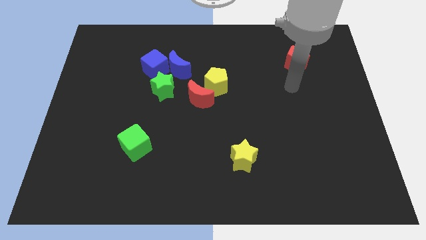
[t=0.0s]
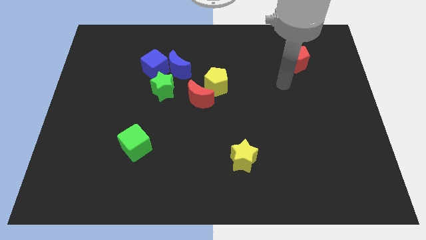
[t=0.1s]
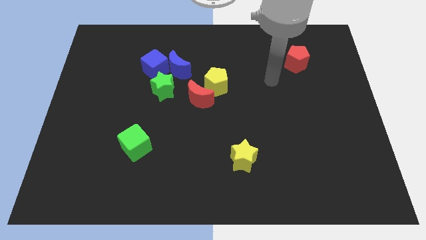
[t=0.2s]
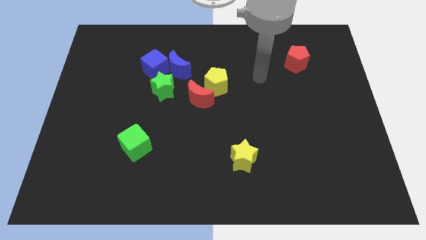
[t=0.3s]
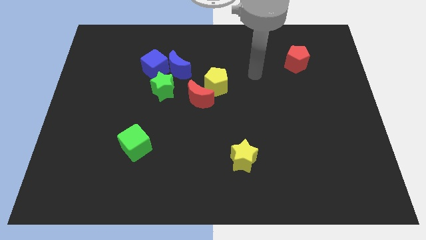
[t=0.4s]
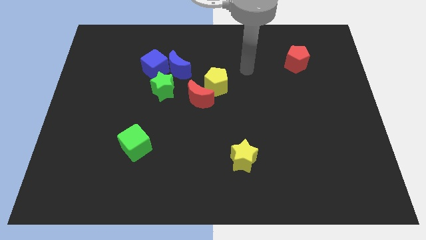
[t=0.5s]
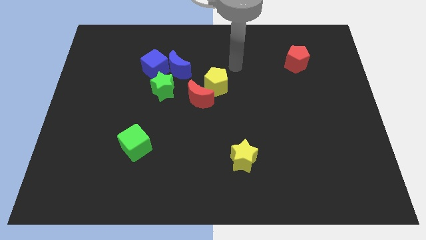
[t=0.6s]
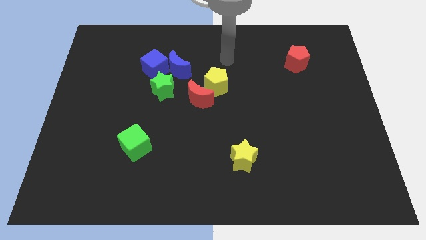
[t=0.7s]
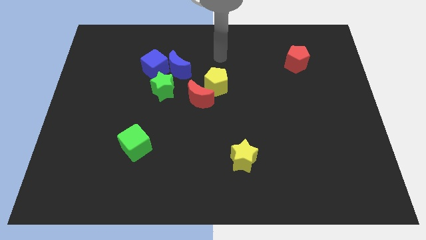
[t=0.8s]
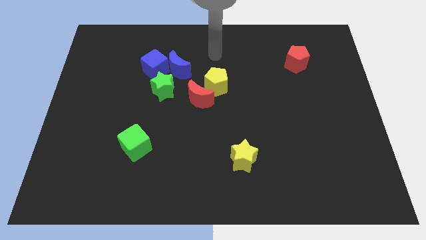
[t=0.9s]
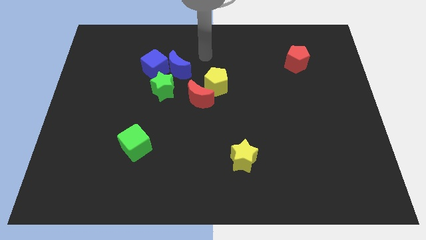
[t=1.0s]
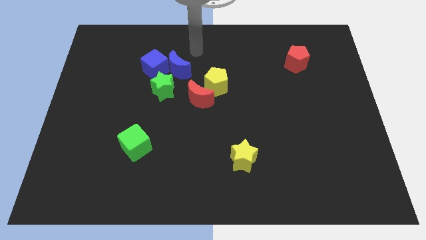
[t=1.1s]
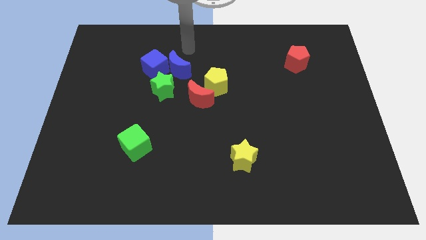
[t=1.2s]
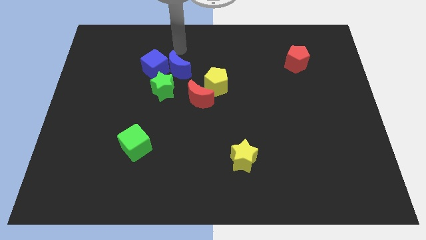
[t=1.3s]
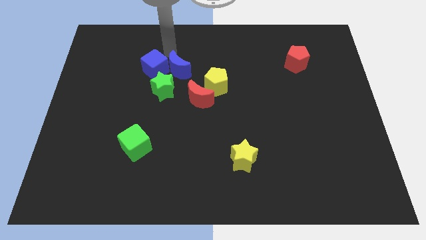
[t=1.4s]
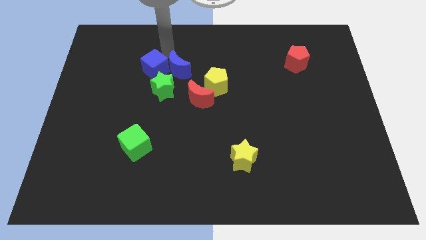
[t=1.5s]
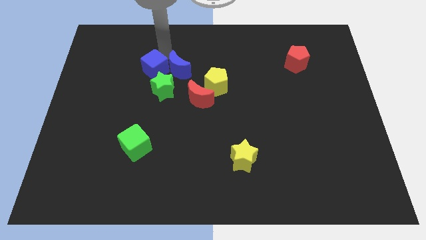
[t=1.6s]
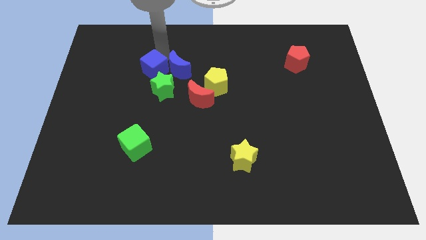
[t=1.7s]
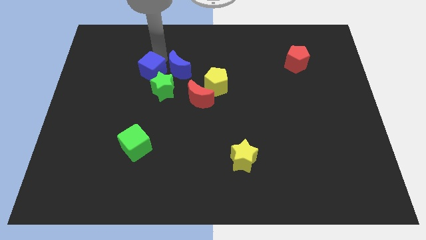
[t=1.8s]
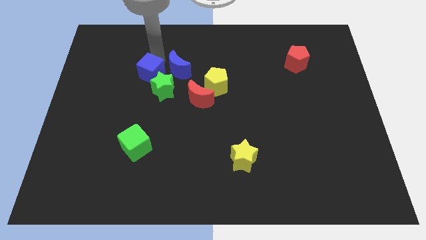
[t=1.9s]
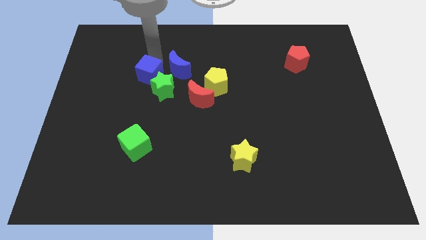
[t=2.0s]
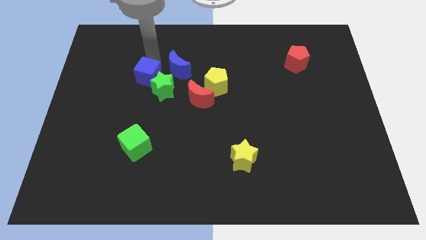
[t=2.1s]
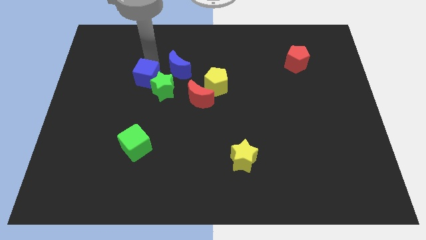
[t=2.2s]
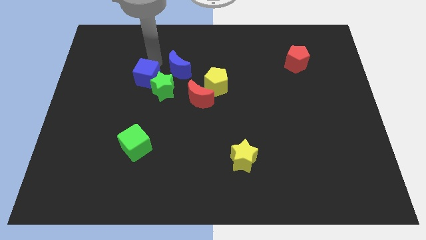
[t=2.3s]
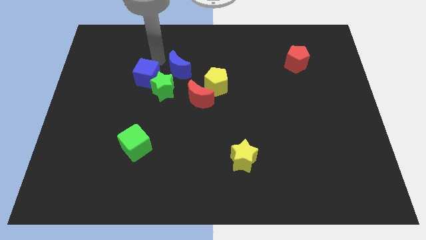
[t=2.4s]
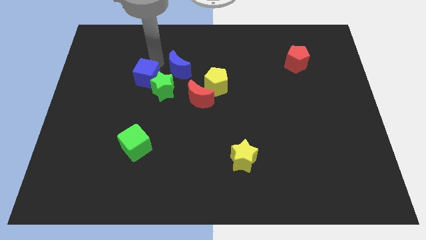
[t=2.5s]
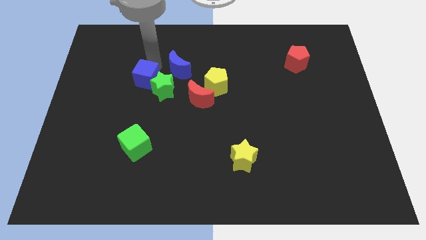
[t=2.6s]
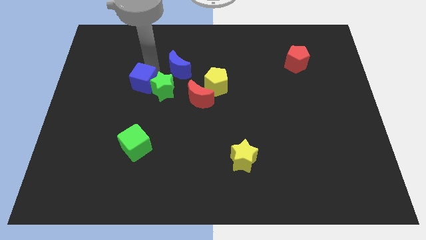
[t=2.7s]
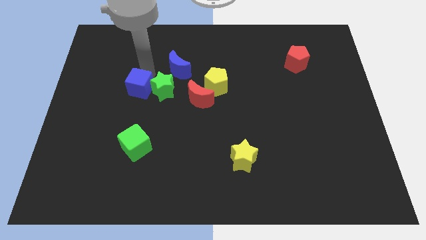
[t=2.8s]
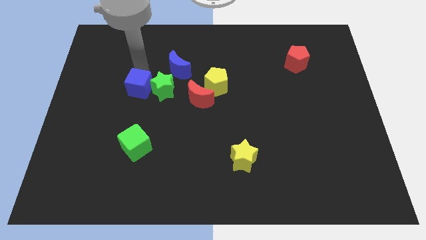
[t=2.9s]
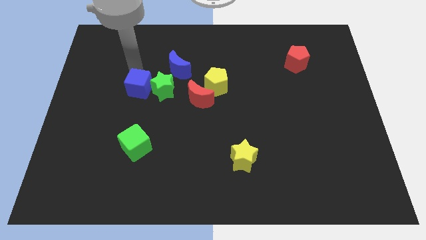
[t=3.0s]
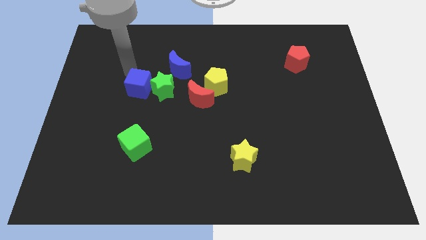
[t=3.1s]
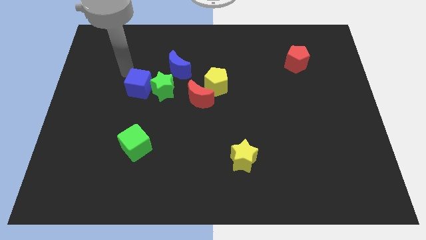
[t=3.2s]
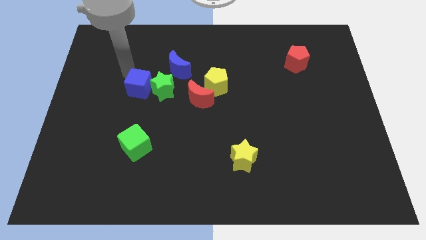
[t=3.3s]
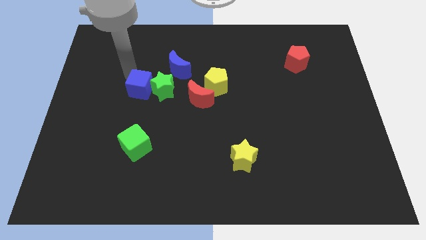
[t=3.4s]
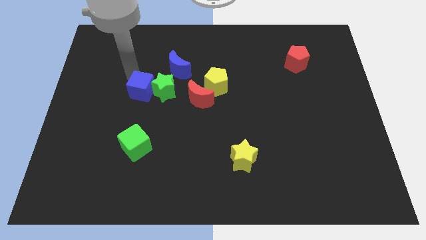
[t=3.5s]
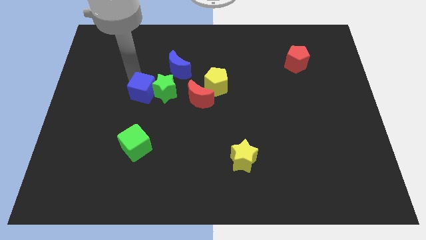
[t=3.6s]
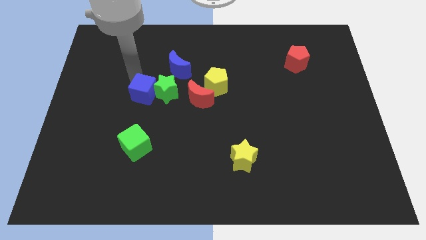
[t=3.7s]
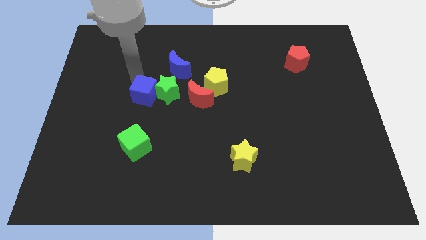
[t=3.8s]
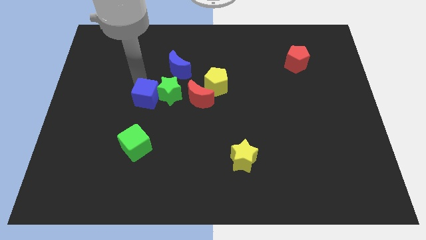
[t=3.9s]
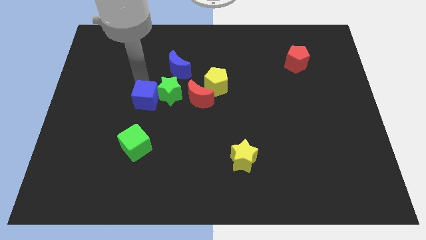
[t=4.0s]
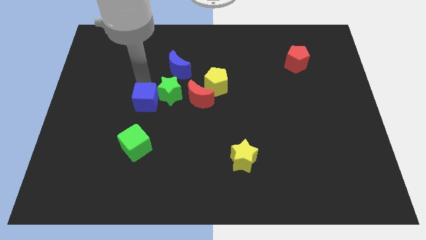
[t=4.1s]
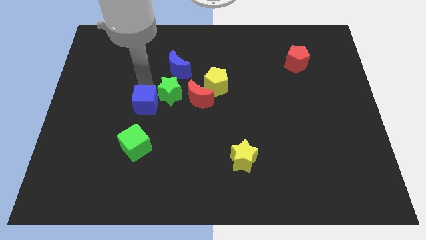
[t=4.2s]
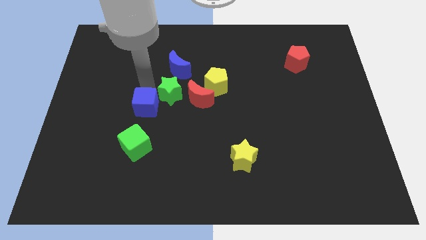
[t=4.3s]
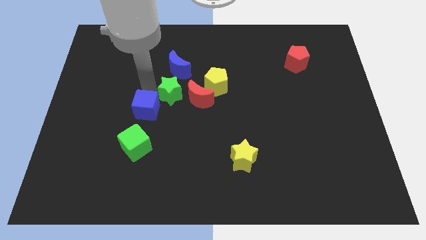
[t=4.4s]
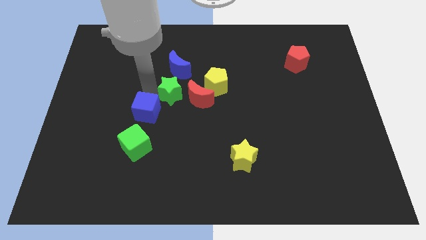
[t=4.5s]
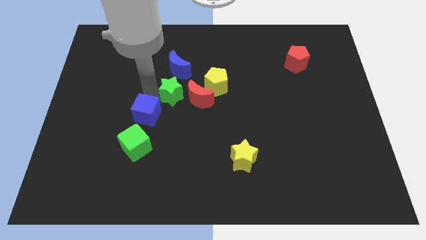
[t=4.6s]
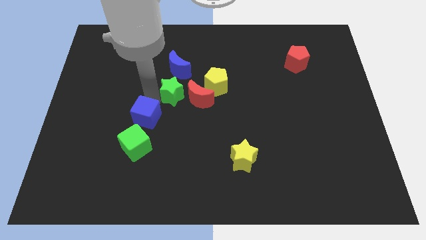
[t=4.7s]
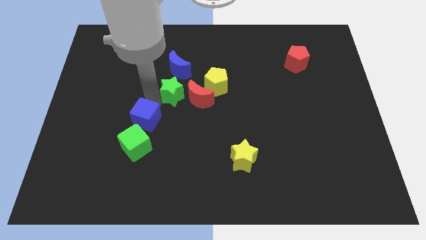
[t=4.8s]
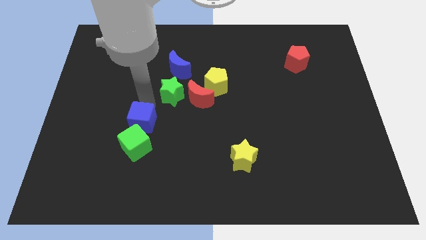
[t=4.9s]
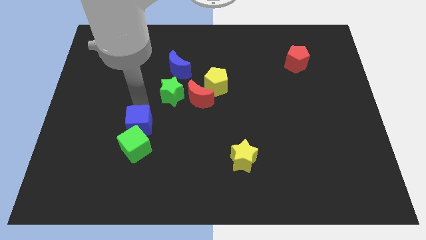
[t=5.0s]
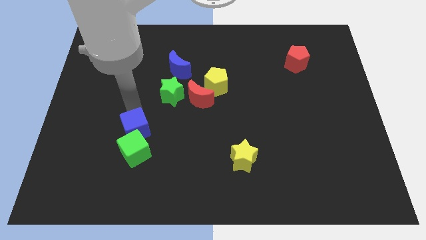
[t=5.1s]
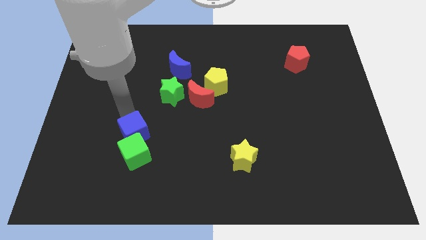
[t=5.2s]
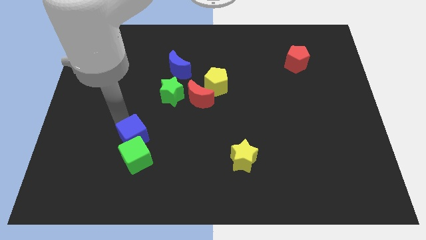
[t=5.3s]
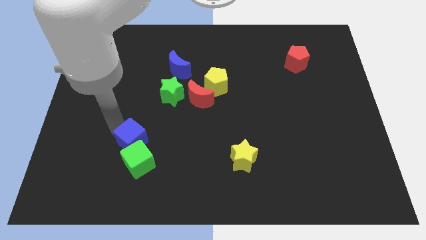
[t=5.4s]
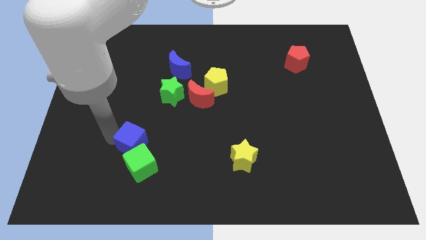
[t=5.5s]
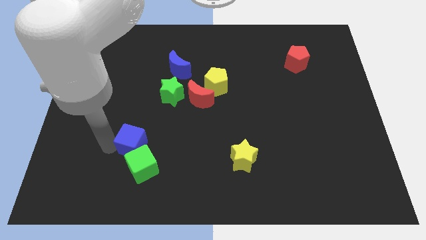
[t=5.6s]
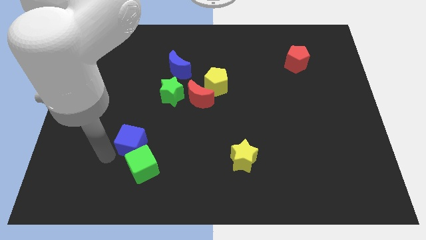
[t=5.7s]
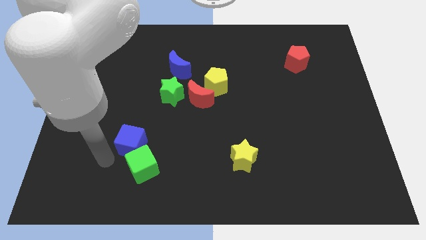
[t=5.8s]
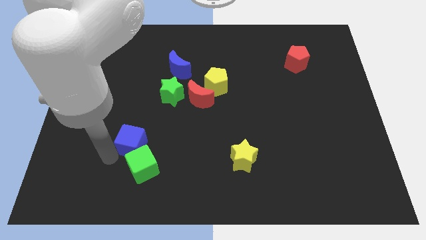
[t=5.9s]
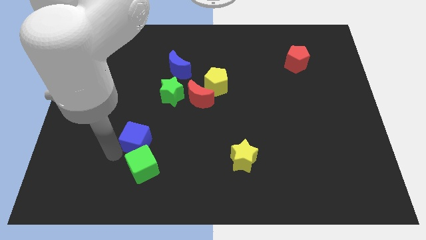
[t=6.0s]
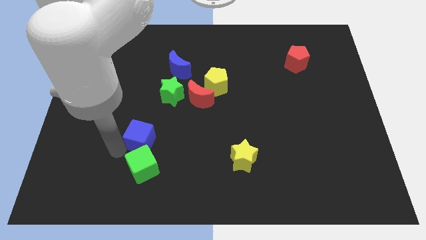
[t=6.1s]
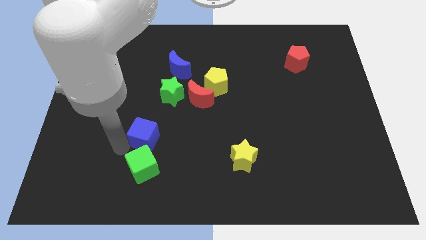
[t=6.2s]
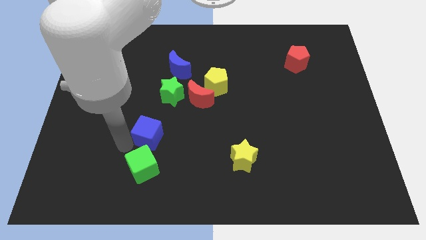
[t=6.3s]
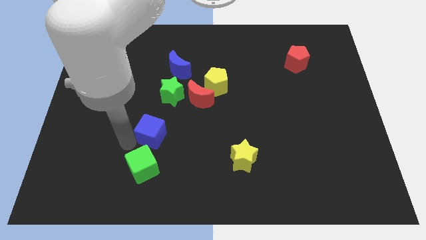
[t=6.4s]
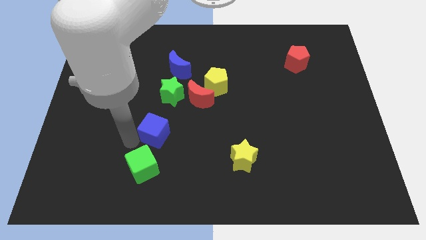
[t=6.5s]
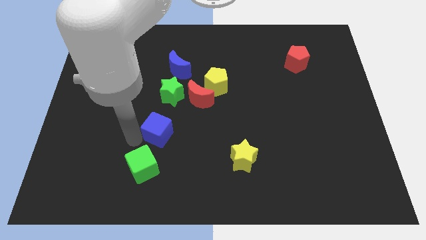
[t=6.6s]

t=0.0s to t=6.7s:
move the blue cube down and right a little bit

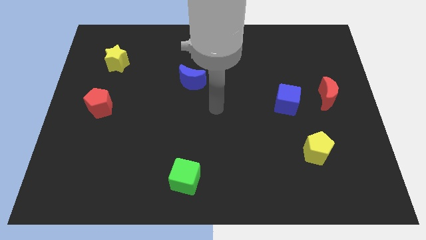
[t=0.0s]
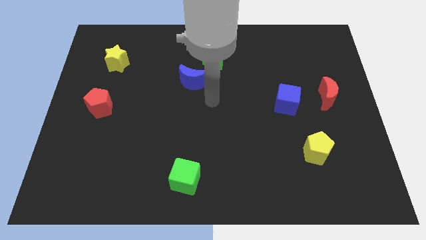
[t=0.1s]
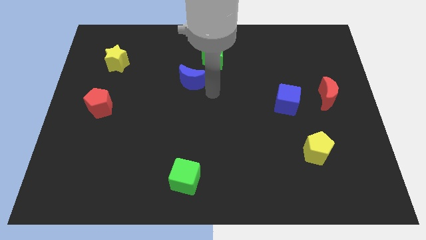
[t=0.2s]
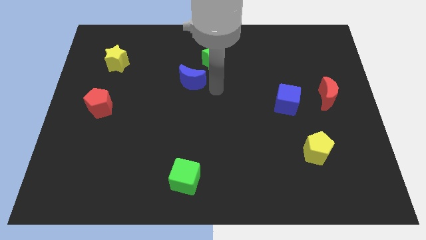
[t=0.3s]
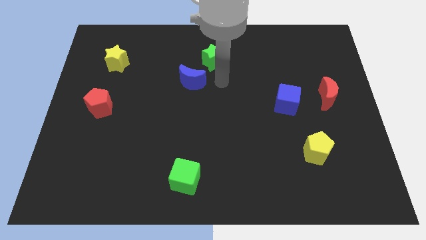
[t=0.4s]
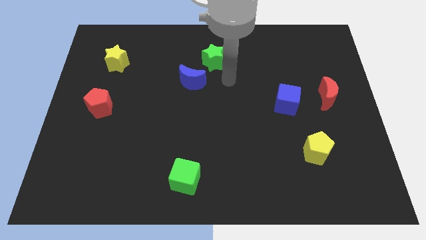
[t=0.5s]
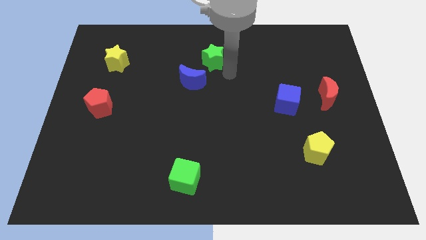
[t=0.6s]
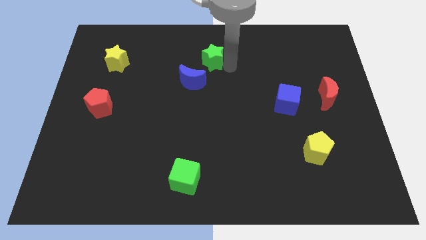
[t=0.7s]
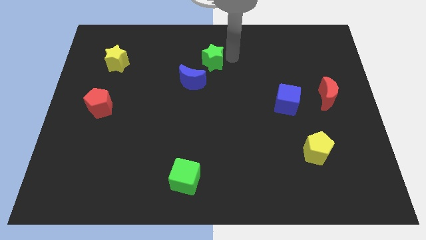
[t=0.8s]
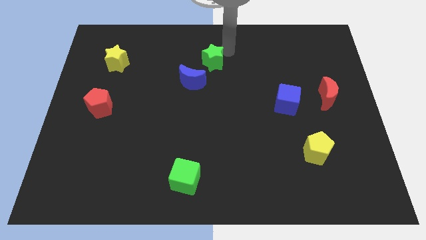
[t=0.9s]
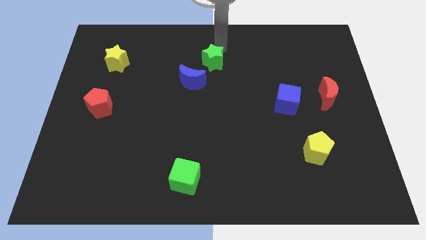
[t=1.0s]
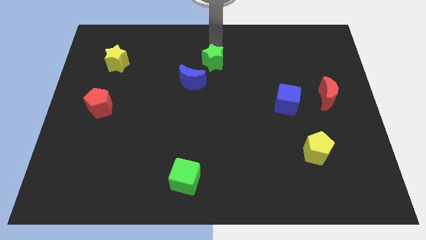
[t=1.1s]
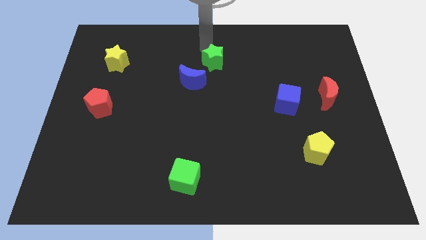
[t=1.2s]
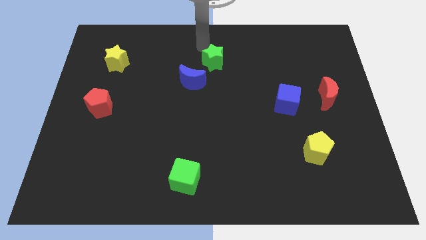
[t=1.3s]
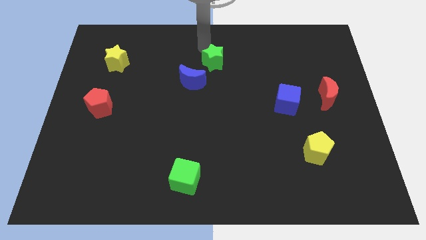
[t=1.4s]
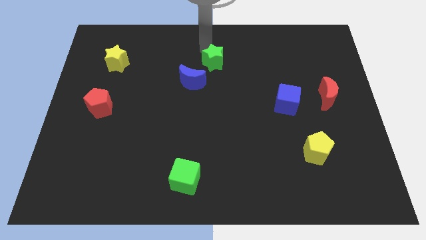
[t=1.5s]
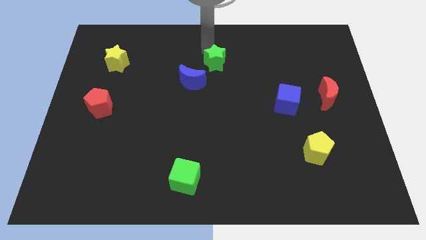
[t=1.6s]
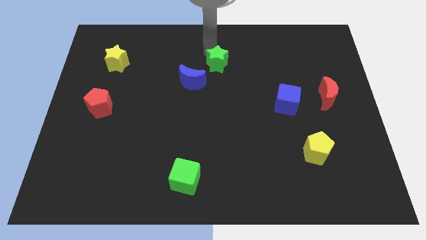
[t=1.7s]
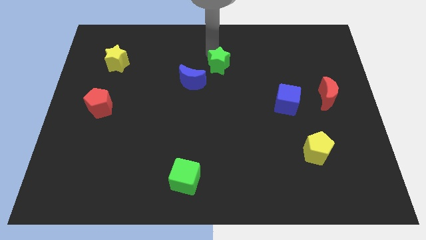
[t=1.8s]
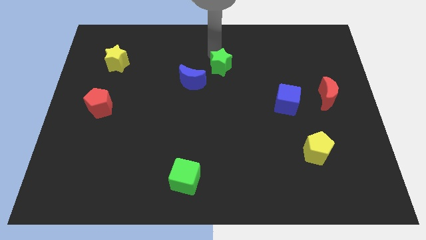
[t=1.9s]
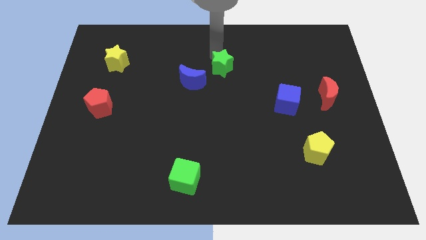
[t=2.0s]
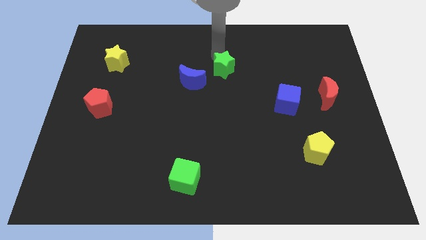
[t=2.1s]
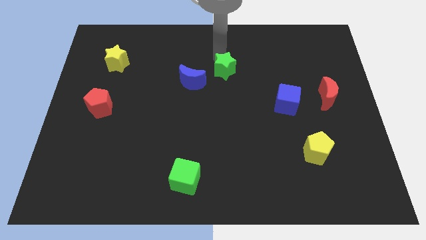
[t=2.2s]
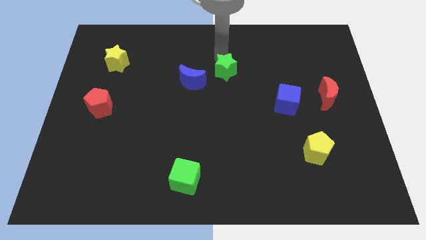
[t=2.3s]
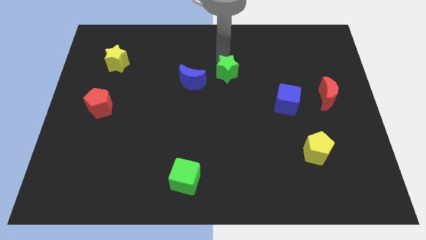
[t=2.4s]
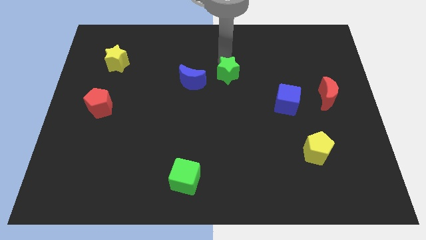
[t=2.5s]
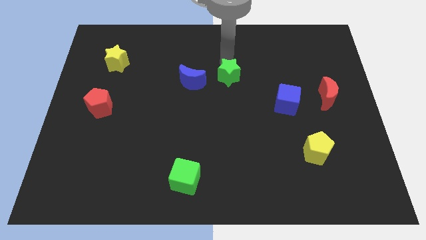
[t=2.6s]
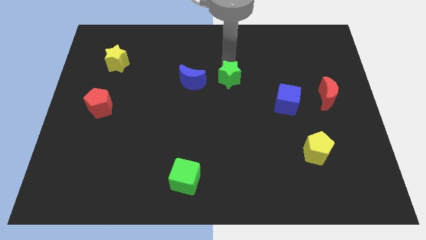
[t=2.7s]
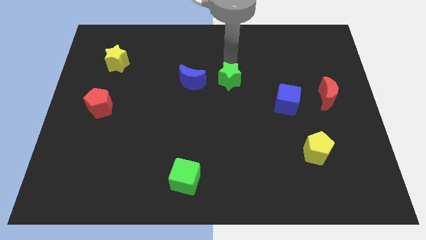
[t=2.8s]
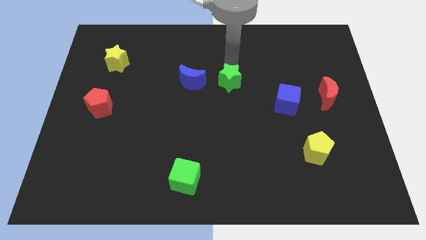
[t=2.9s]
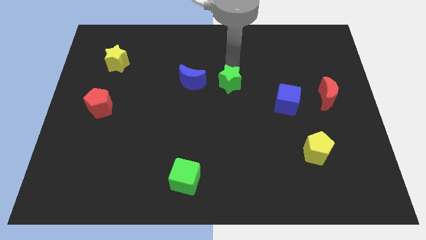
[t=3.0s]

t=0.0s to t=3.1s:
slide the green star a bit down
